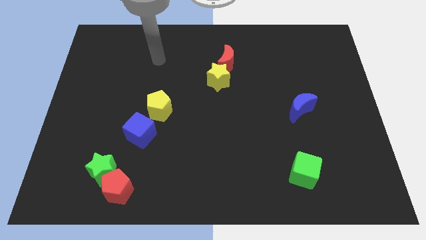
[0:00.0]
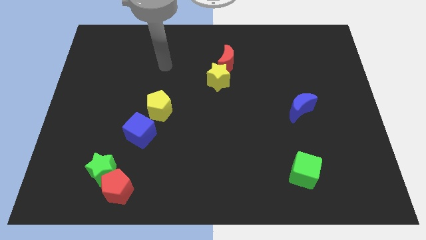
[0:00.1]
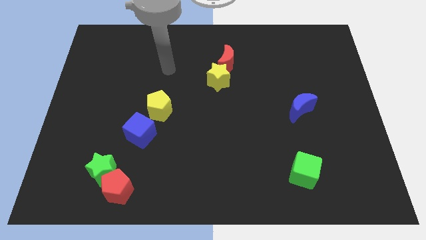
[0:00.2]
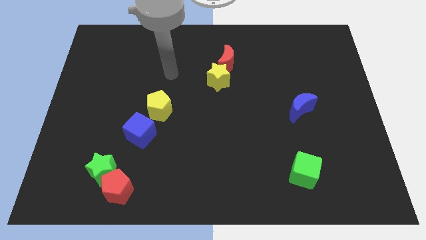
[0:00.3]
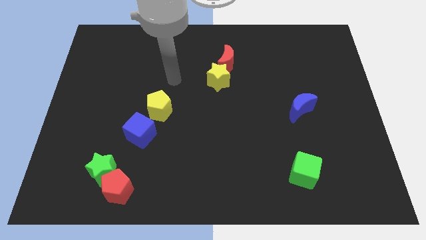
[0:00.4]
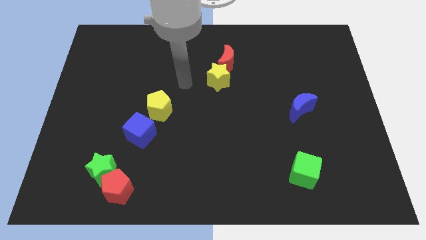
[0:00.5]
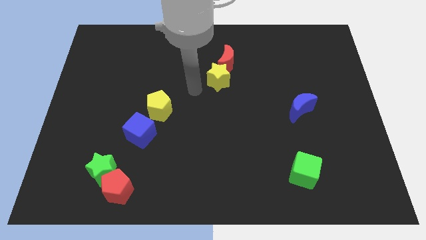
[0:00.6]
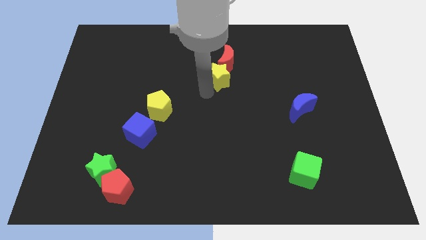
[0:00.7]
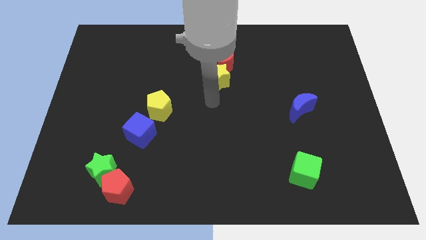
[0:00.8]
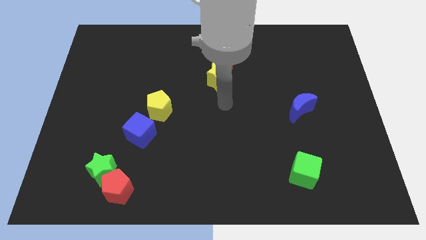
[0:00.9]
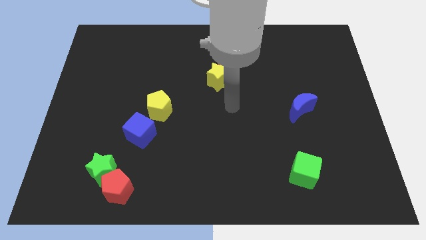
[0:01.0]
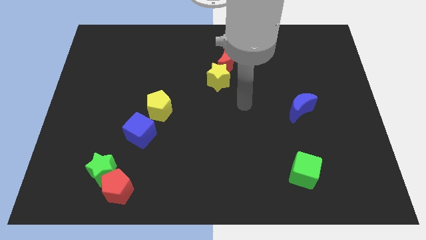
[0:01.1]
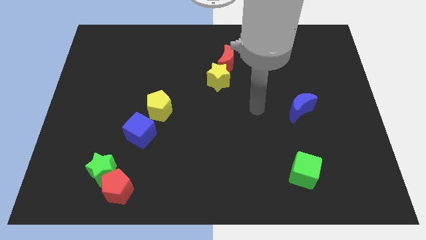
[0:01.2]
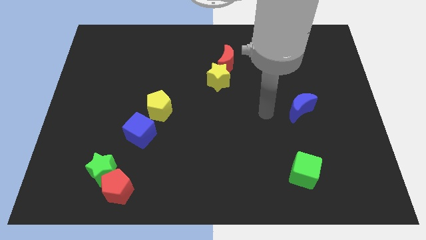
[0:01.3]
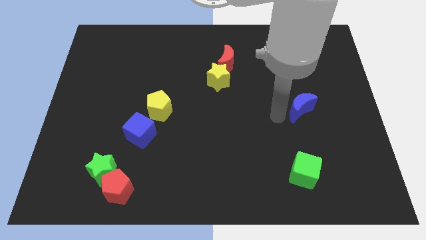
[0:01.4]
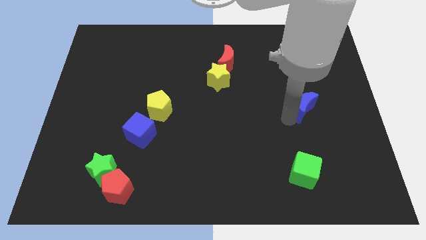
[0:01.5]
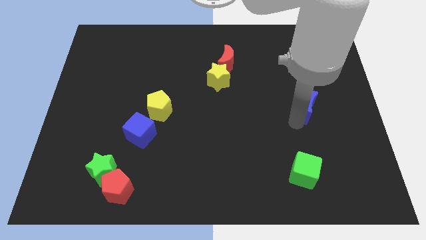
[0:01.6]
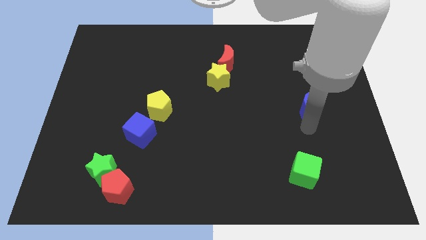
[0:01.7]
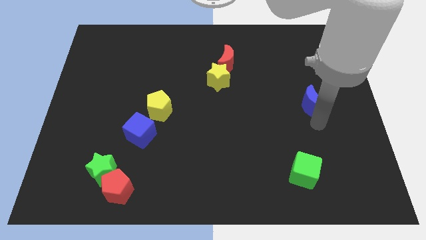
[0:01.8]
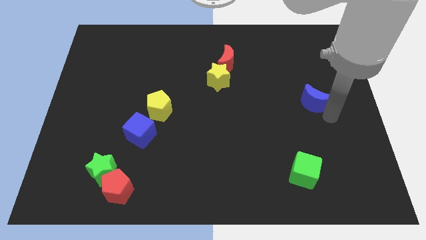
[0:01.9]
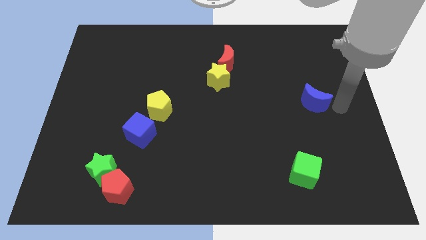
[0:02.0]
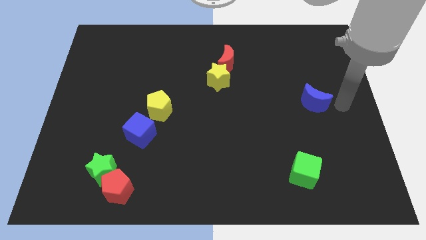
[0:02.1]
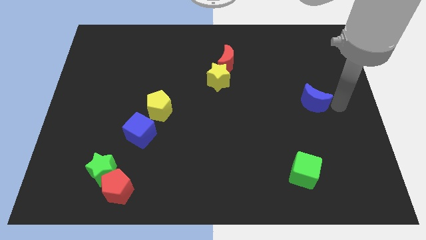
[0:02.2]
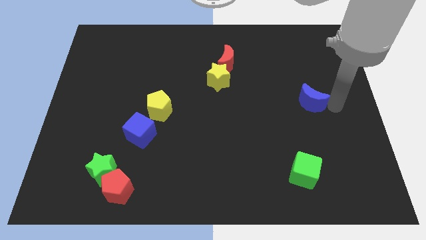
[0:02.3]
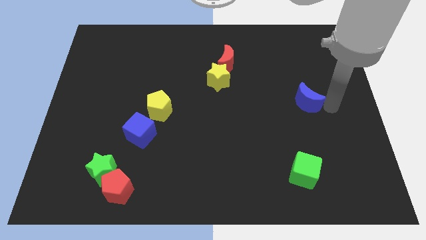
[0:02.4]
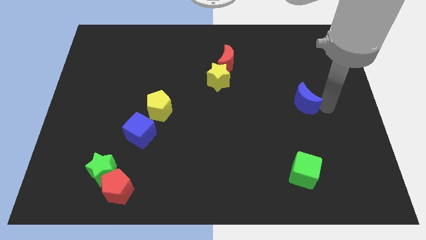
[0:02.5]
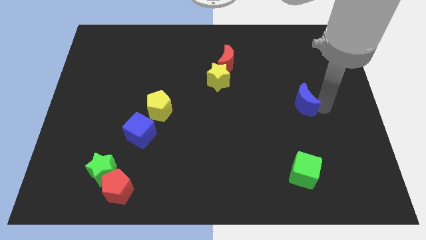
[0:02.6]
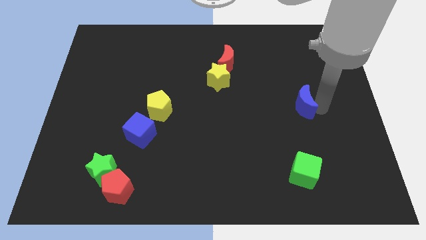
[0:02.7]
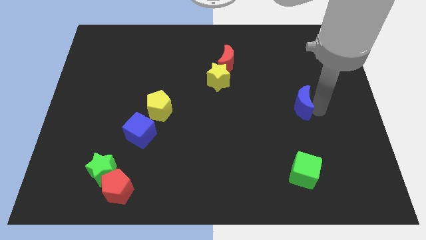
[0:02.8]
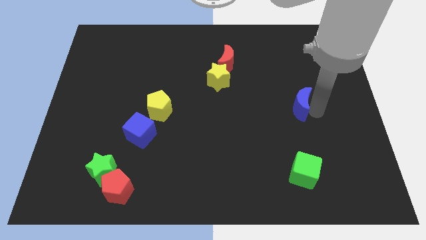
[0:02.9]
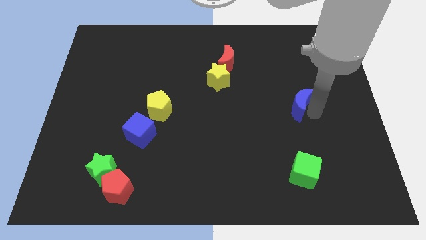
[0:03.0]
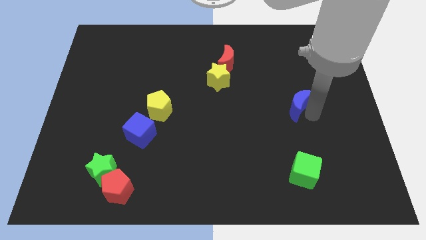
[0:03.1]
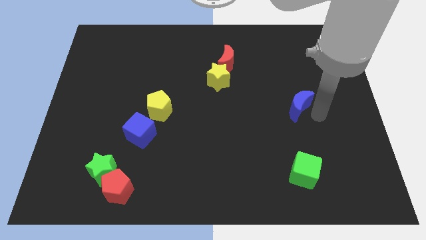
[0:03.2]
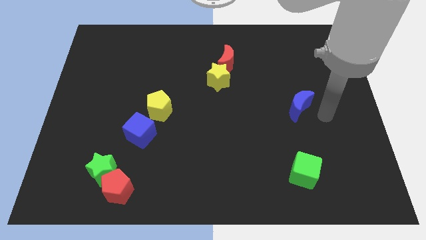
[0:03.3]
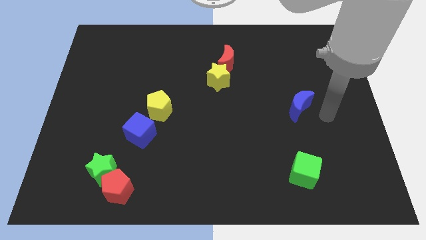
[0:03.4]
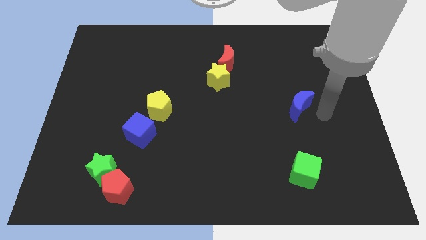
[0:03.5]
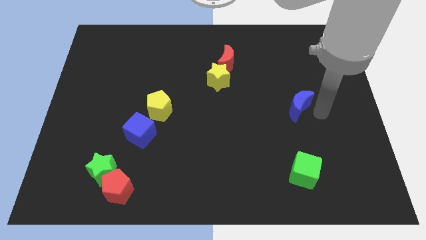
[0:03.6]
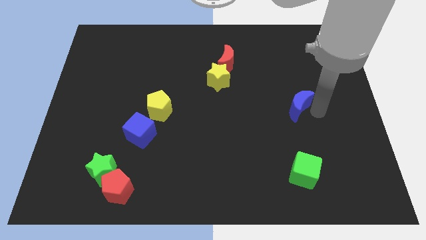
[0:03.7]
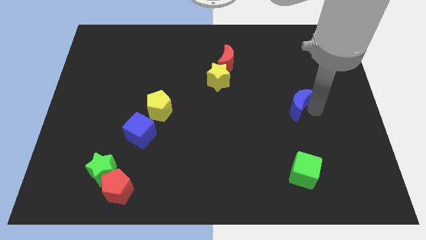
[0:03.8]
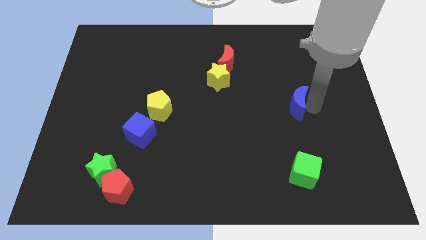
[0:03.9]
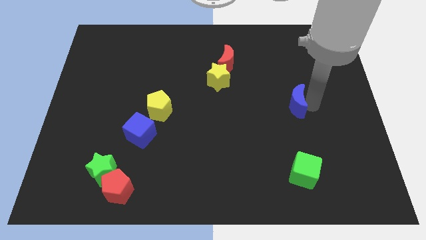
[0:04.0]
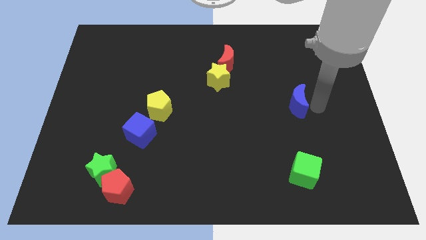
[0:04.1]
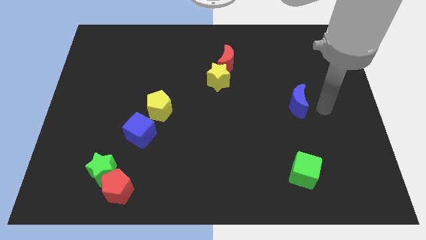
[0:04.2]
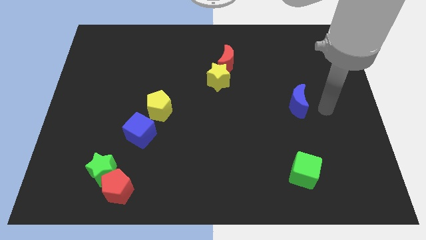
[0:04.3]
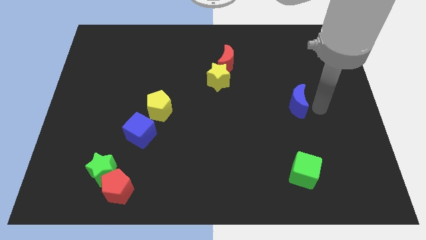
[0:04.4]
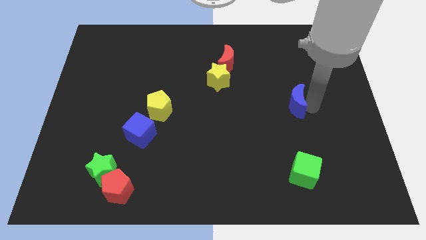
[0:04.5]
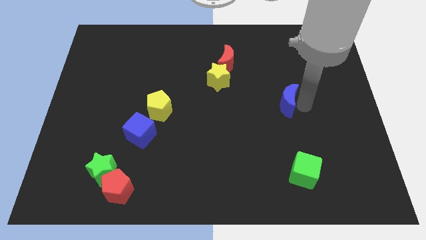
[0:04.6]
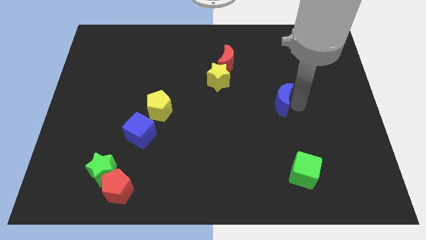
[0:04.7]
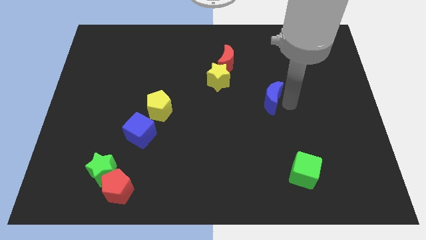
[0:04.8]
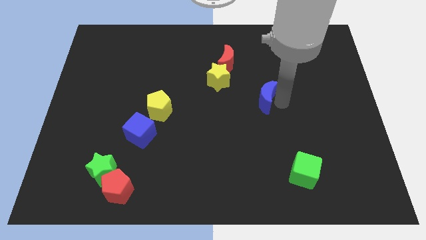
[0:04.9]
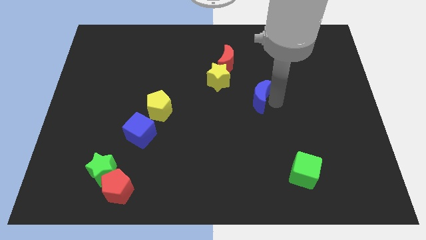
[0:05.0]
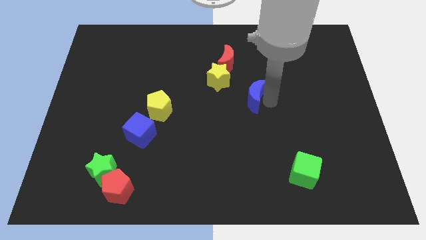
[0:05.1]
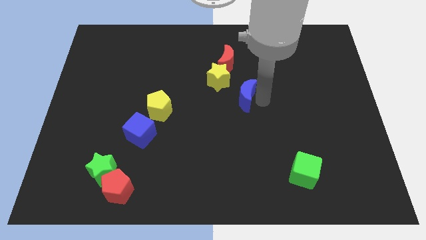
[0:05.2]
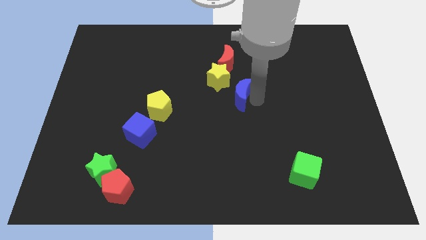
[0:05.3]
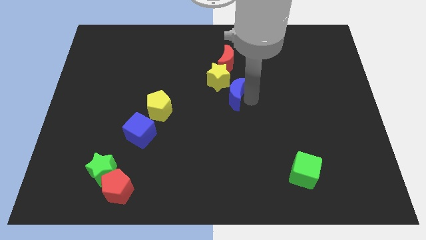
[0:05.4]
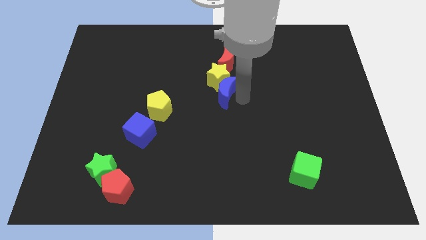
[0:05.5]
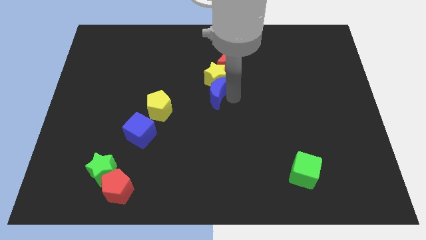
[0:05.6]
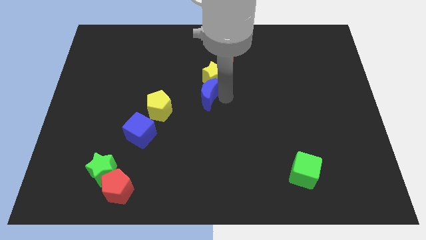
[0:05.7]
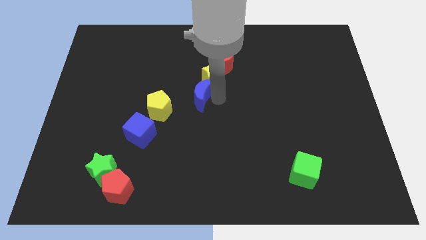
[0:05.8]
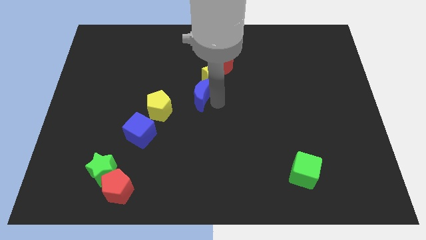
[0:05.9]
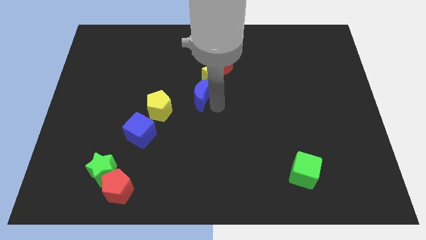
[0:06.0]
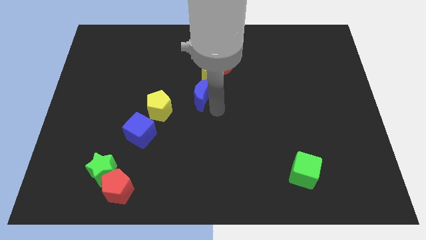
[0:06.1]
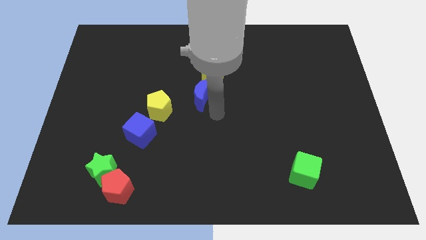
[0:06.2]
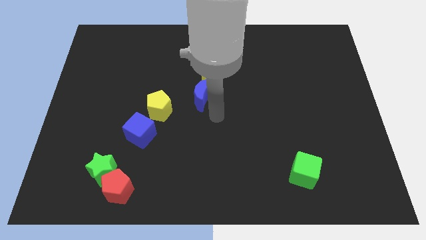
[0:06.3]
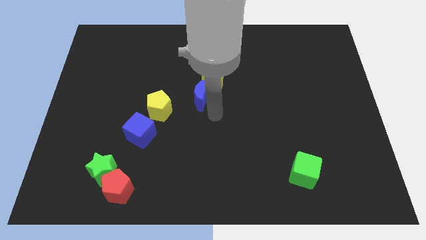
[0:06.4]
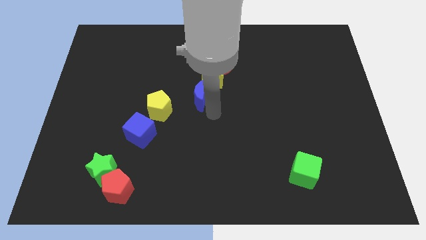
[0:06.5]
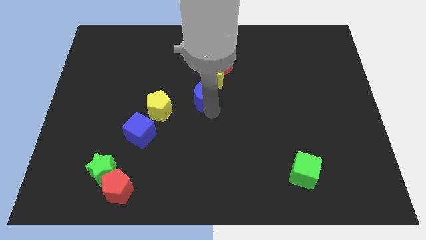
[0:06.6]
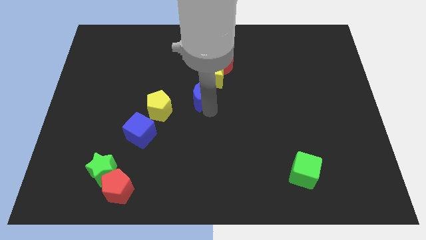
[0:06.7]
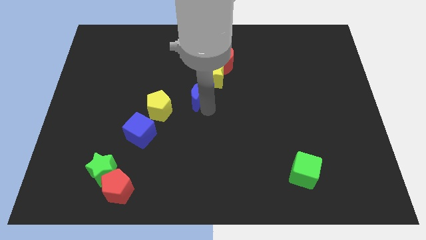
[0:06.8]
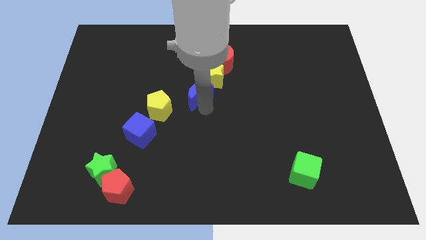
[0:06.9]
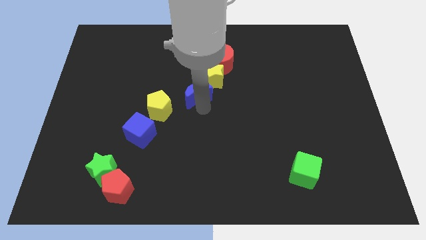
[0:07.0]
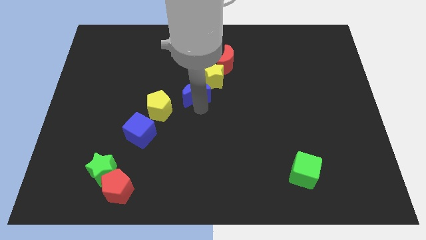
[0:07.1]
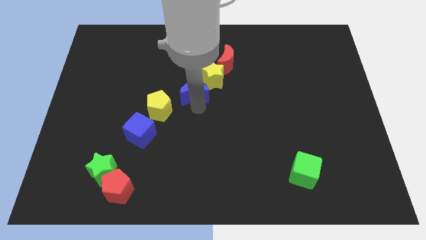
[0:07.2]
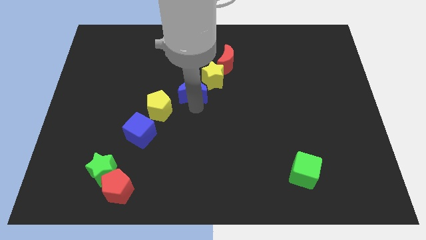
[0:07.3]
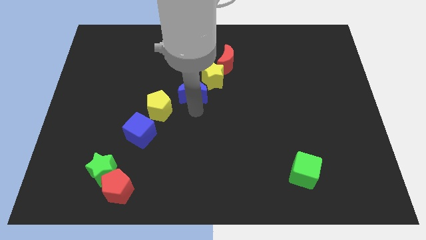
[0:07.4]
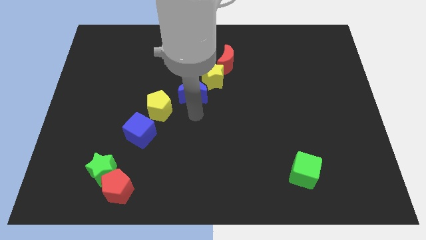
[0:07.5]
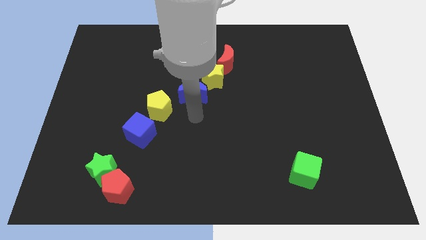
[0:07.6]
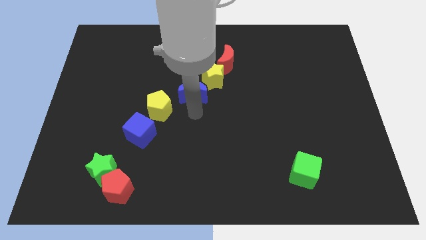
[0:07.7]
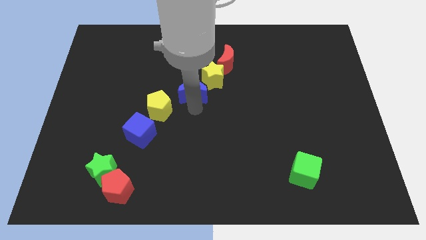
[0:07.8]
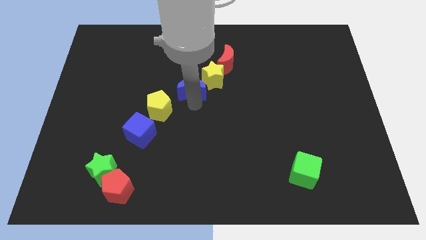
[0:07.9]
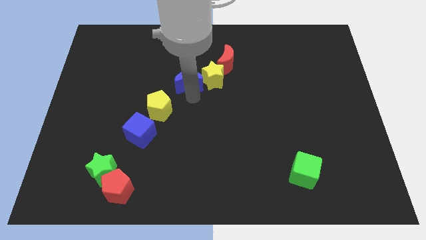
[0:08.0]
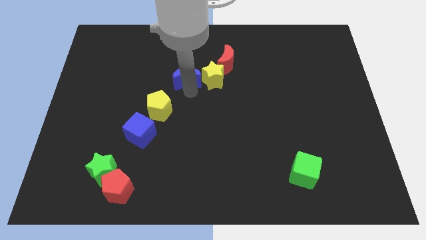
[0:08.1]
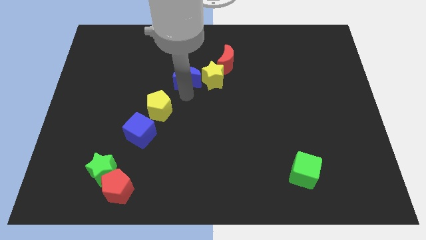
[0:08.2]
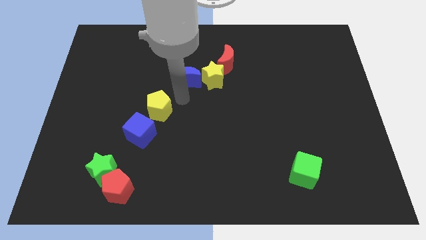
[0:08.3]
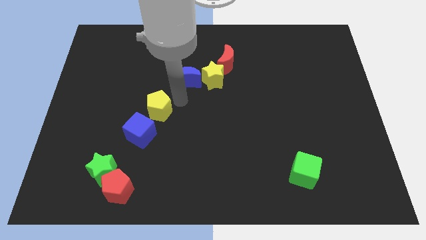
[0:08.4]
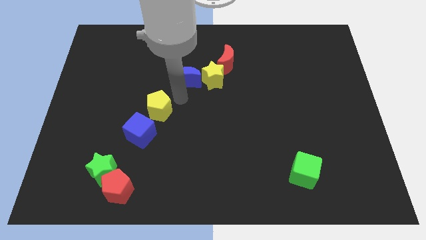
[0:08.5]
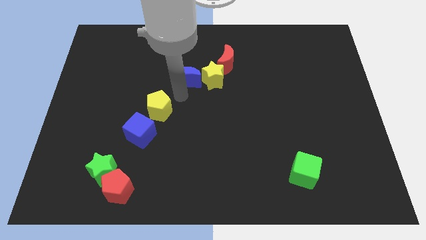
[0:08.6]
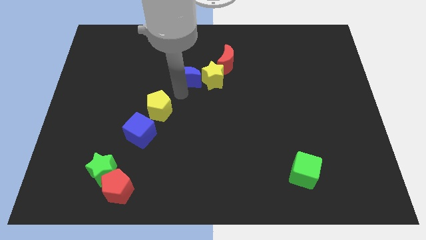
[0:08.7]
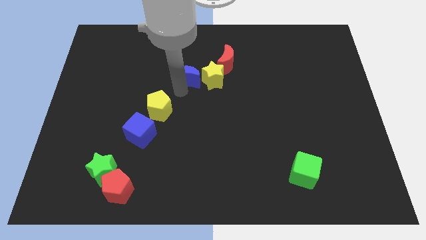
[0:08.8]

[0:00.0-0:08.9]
move the blue moon to the top left side of the yellow star
